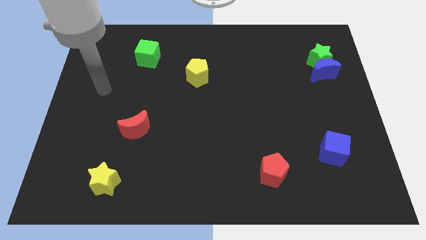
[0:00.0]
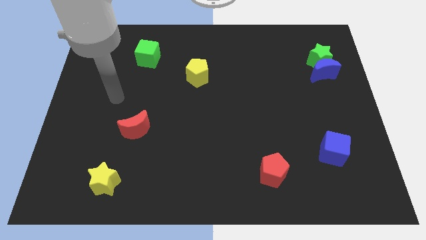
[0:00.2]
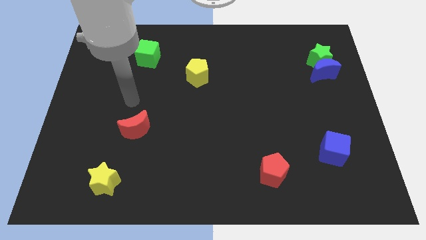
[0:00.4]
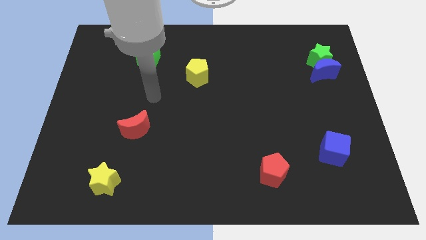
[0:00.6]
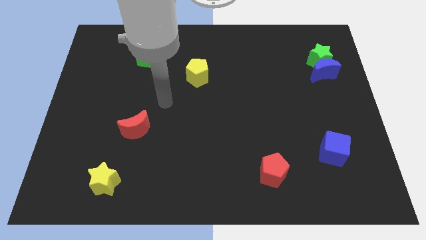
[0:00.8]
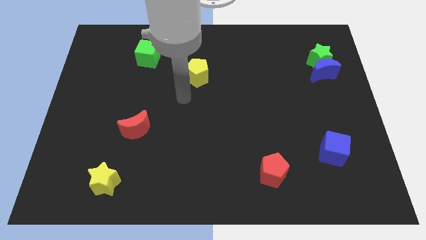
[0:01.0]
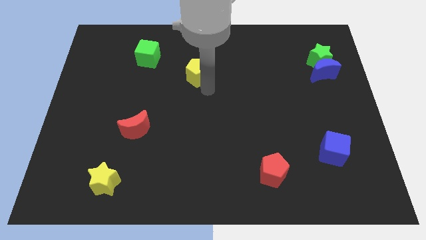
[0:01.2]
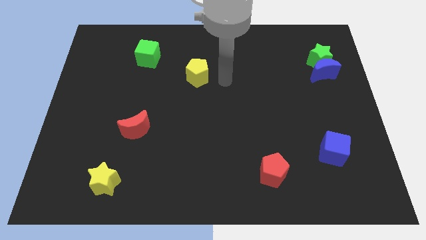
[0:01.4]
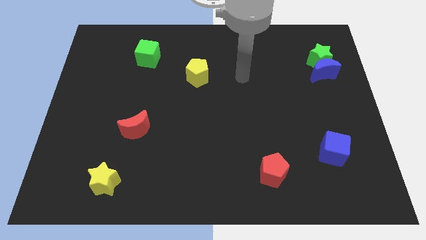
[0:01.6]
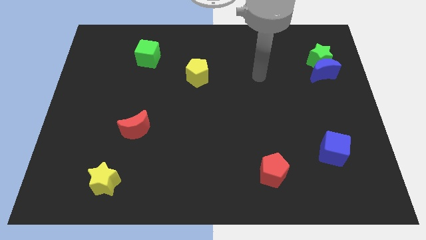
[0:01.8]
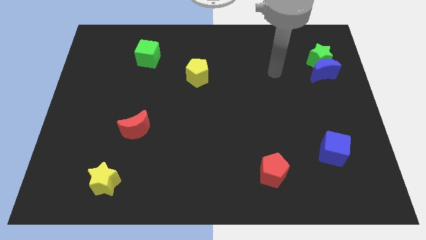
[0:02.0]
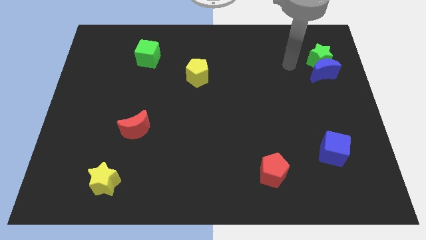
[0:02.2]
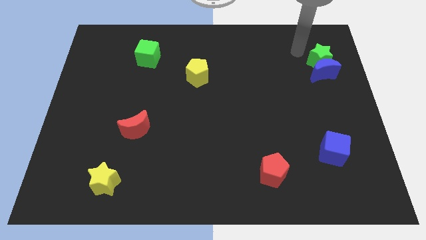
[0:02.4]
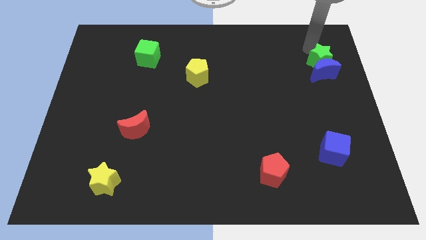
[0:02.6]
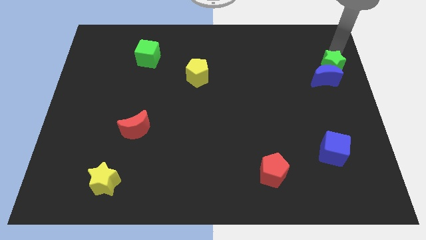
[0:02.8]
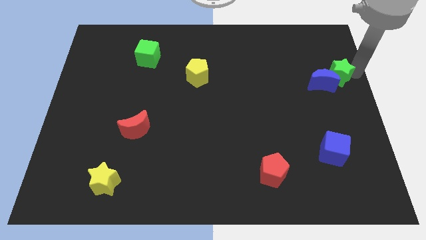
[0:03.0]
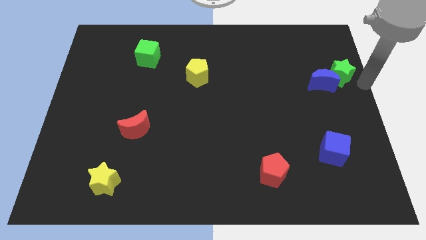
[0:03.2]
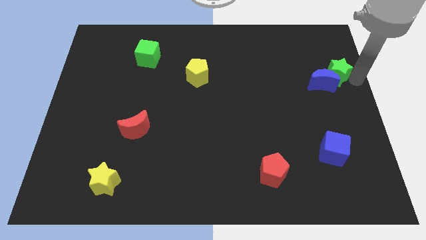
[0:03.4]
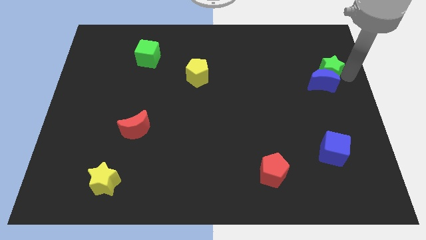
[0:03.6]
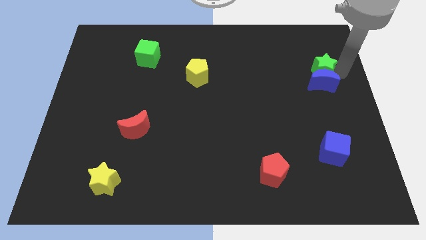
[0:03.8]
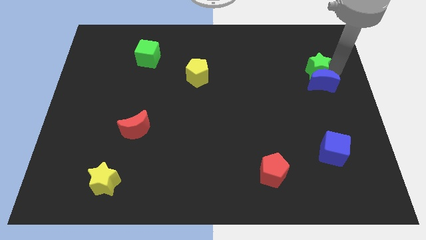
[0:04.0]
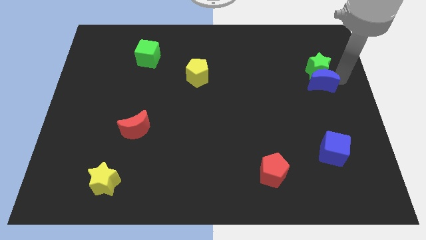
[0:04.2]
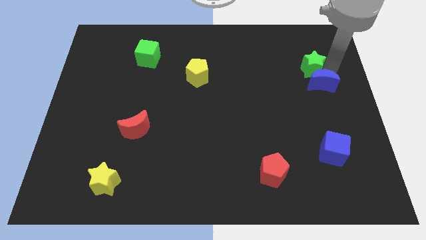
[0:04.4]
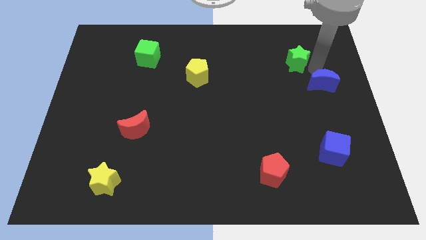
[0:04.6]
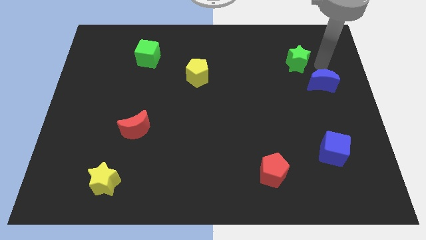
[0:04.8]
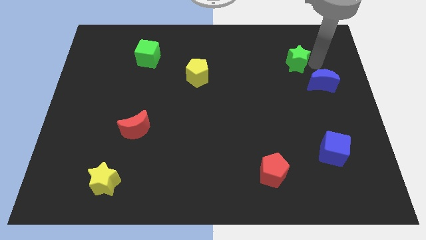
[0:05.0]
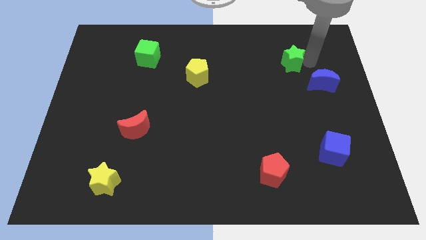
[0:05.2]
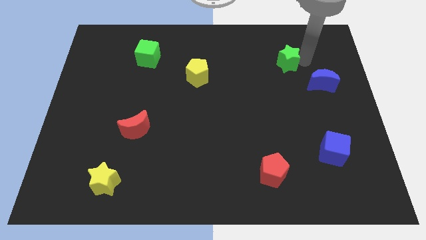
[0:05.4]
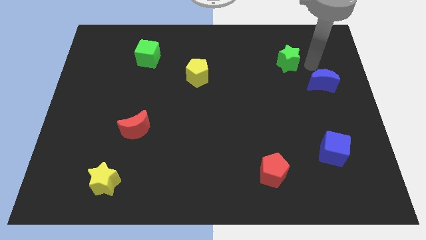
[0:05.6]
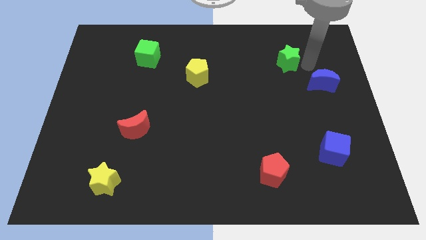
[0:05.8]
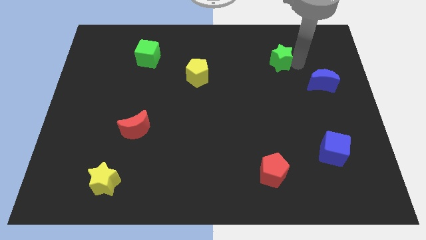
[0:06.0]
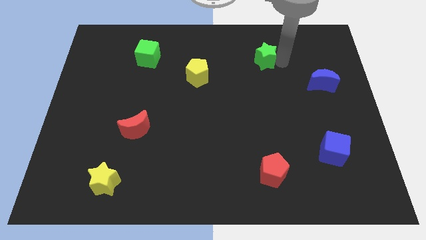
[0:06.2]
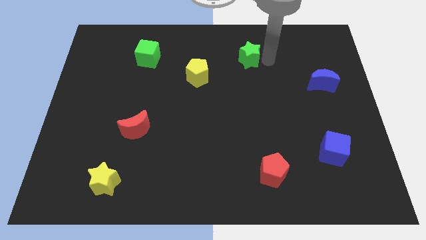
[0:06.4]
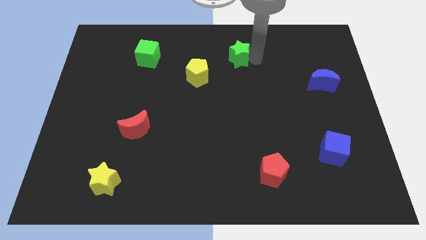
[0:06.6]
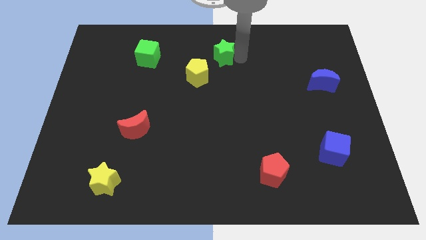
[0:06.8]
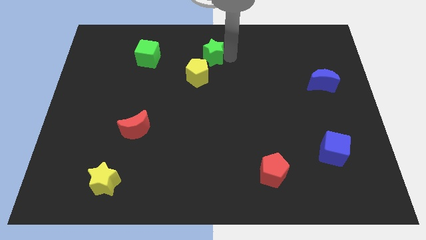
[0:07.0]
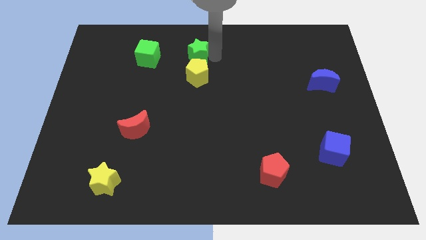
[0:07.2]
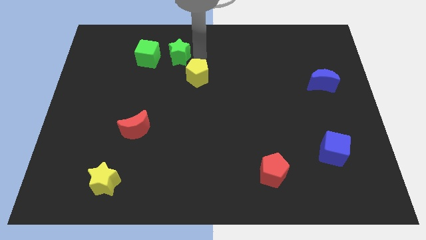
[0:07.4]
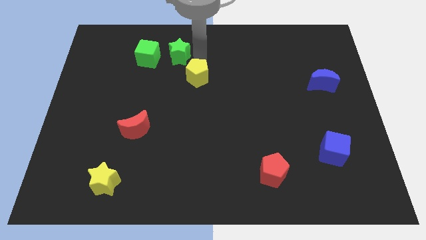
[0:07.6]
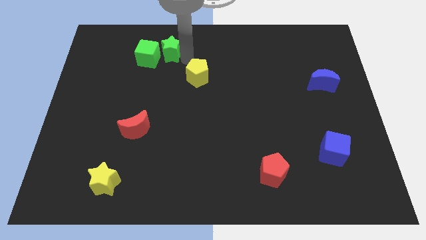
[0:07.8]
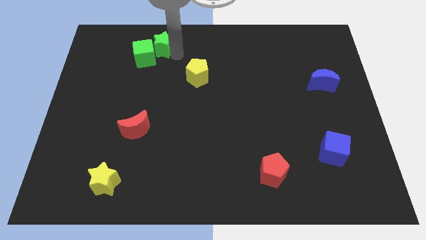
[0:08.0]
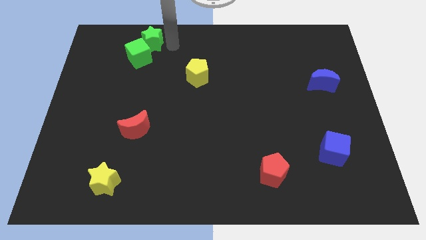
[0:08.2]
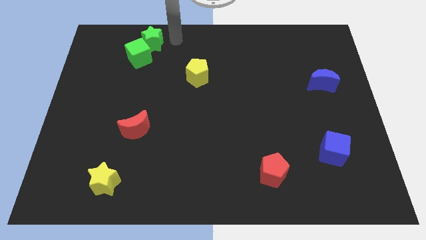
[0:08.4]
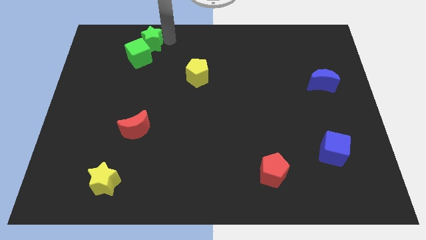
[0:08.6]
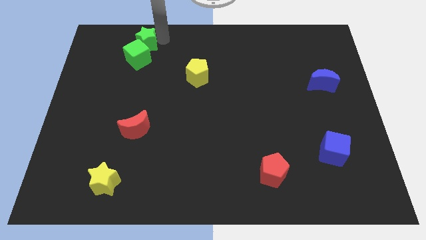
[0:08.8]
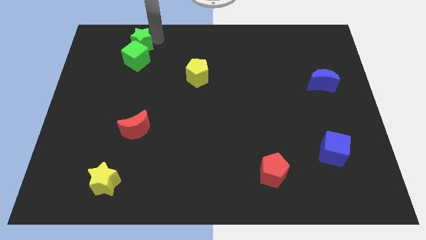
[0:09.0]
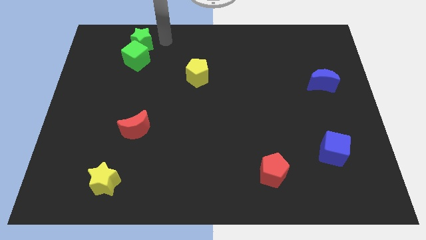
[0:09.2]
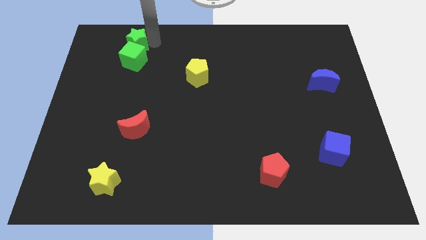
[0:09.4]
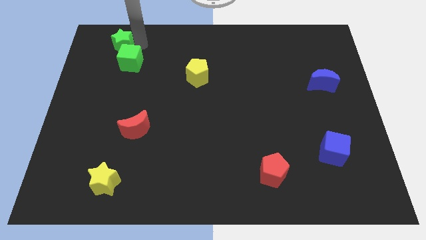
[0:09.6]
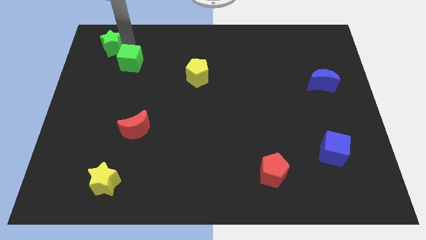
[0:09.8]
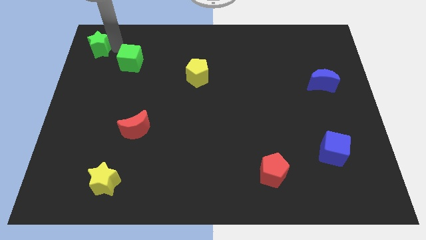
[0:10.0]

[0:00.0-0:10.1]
slide the green star to the top left corner

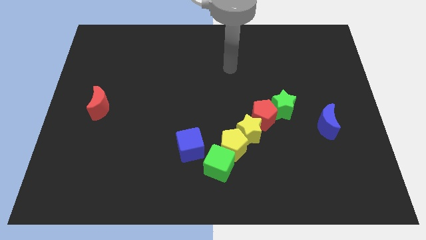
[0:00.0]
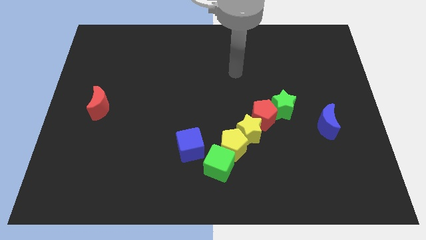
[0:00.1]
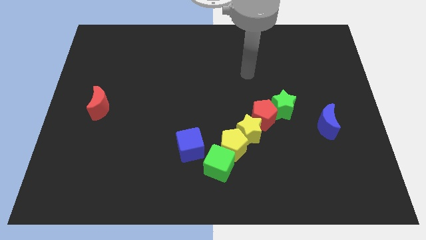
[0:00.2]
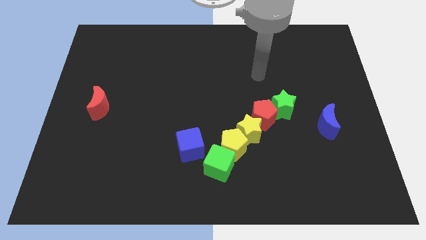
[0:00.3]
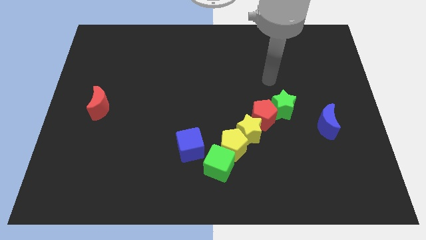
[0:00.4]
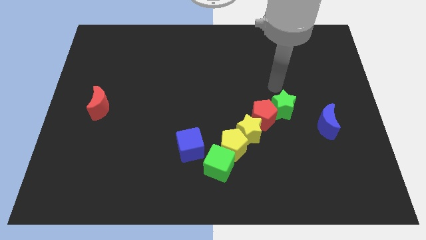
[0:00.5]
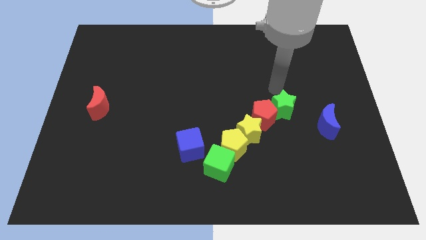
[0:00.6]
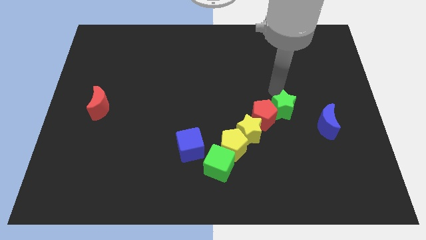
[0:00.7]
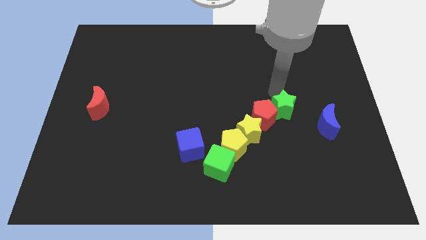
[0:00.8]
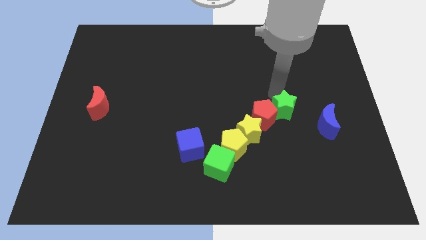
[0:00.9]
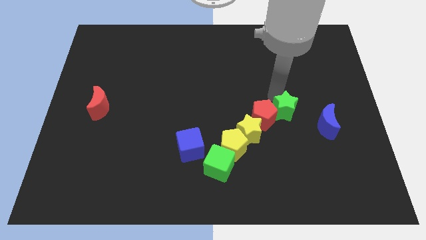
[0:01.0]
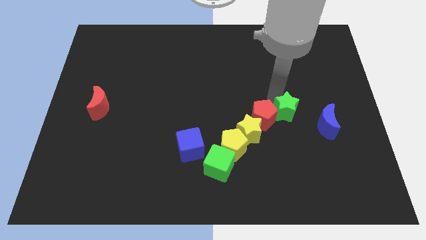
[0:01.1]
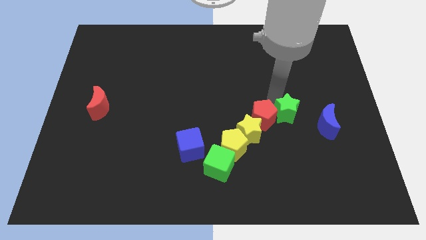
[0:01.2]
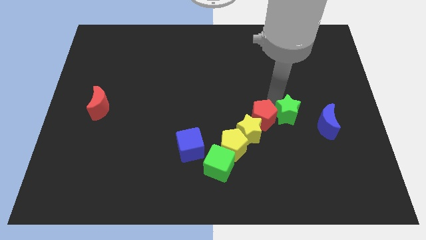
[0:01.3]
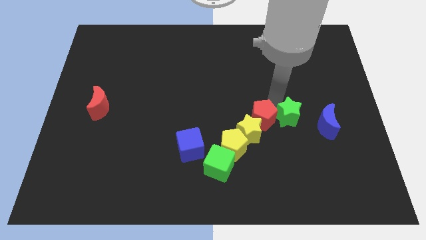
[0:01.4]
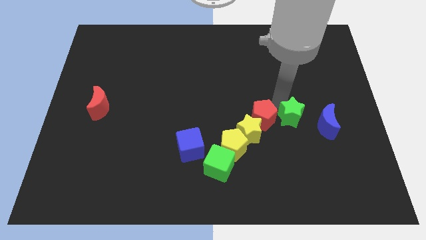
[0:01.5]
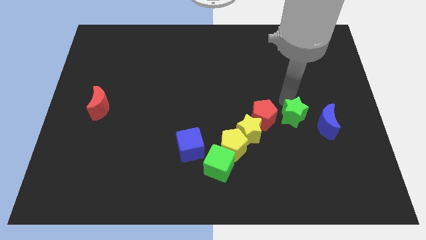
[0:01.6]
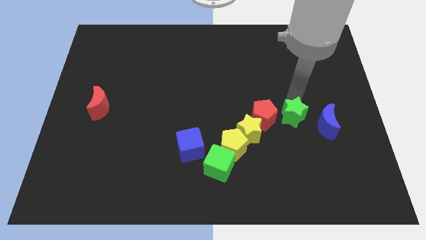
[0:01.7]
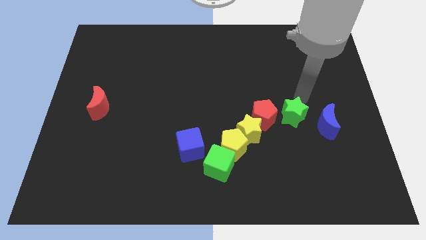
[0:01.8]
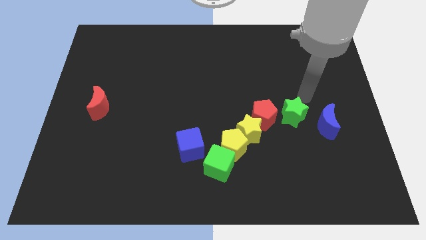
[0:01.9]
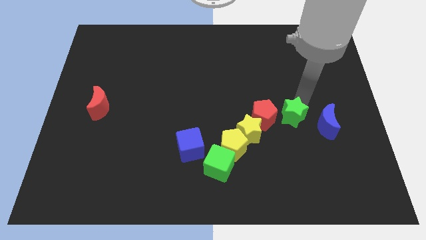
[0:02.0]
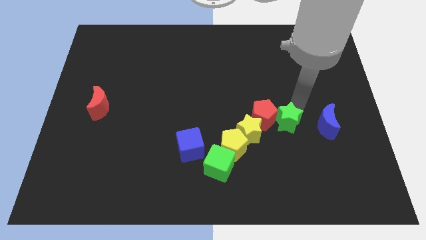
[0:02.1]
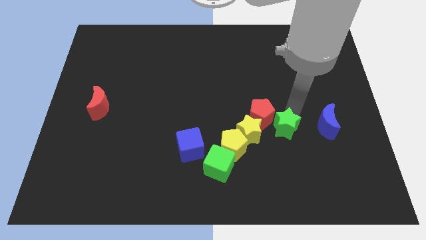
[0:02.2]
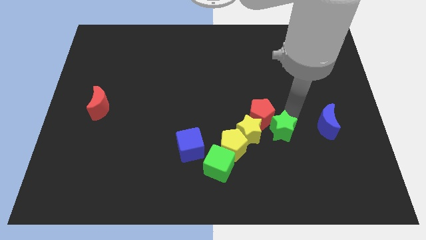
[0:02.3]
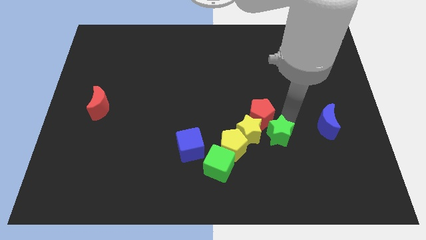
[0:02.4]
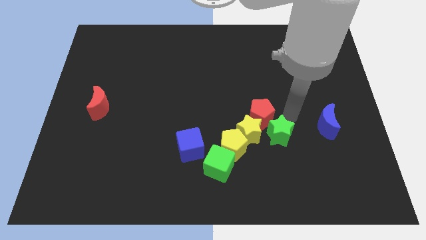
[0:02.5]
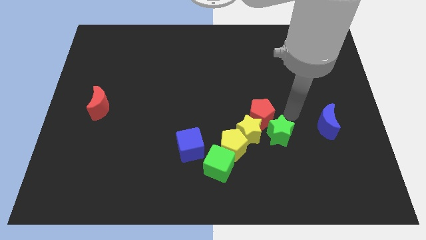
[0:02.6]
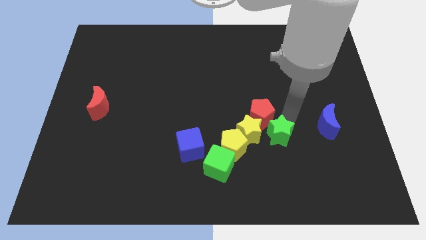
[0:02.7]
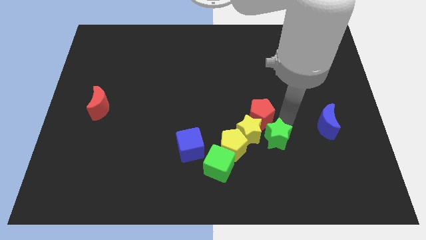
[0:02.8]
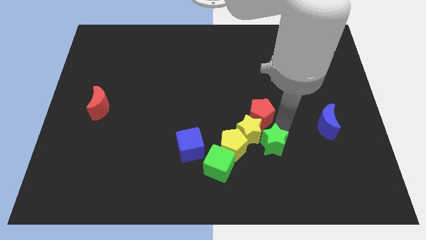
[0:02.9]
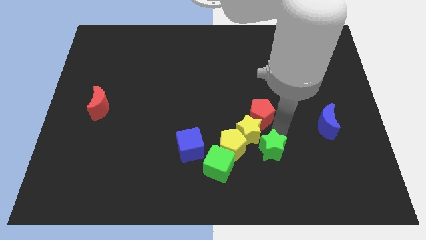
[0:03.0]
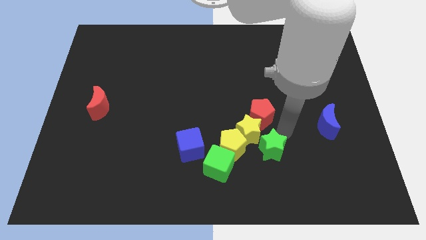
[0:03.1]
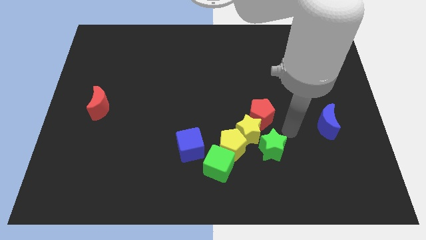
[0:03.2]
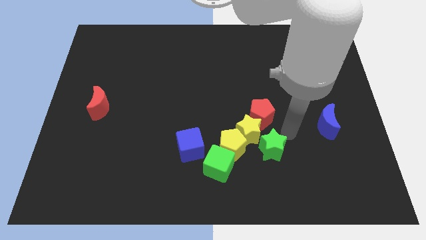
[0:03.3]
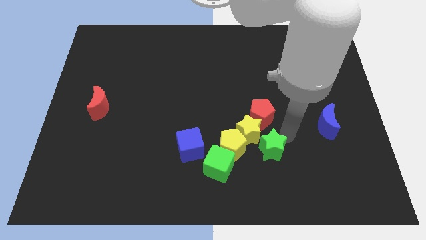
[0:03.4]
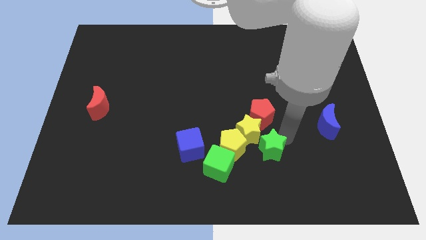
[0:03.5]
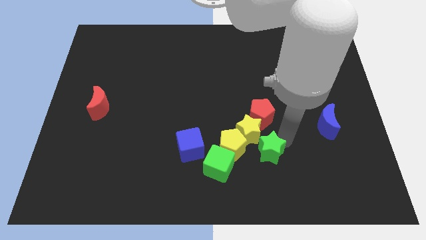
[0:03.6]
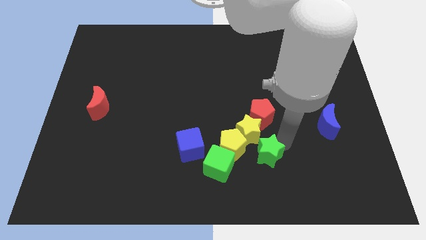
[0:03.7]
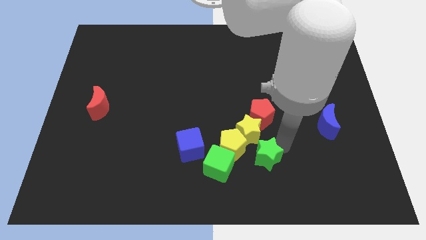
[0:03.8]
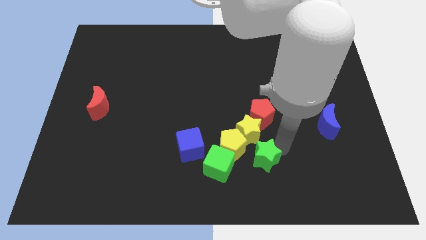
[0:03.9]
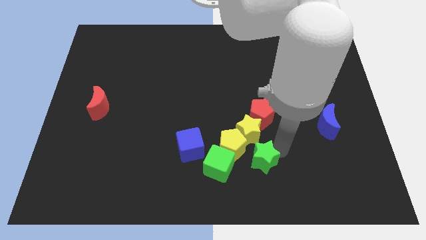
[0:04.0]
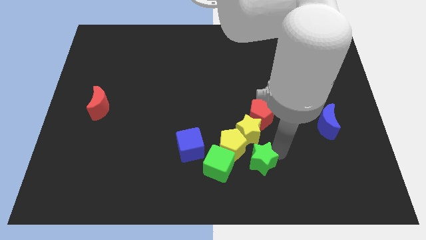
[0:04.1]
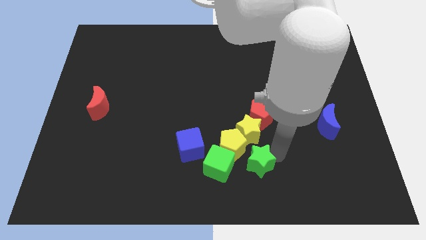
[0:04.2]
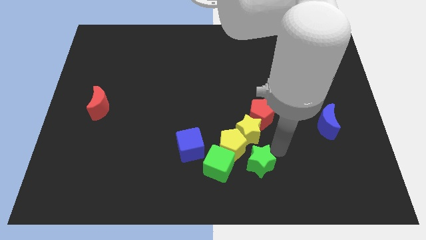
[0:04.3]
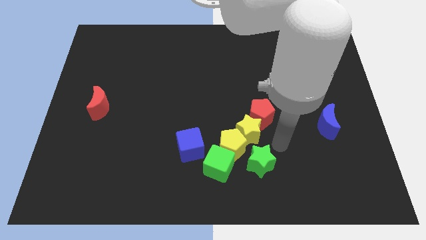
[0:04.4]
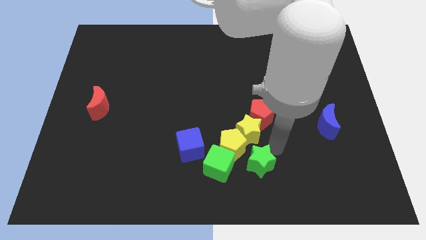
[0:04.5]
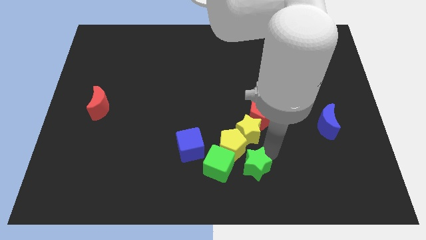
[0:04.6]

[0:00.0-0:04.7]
slide the green star to the bottom side
